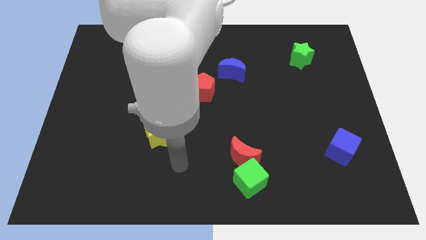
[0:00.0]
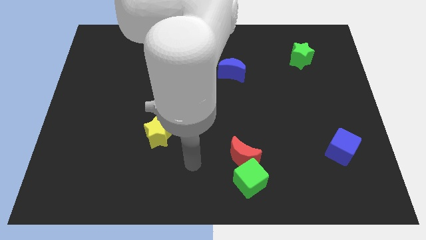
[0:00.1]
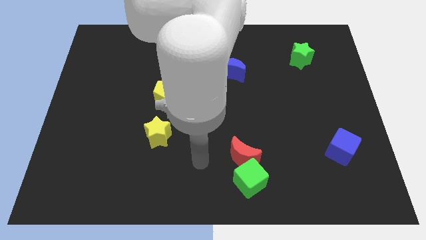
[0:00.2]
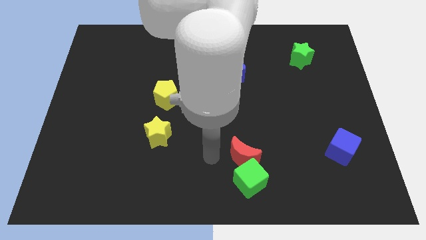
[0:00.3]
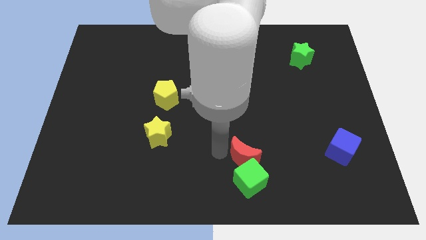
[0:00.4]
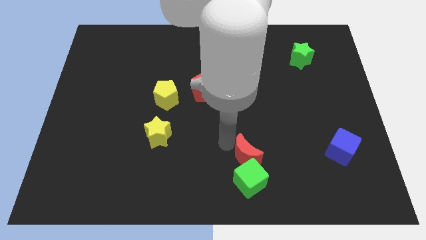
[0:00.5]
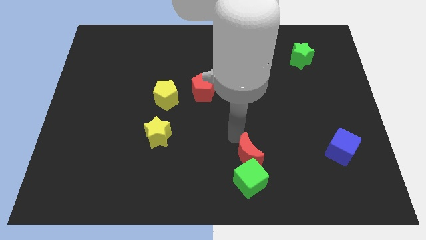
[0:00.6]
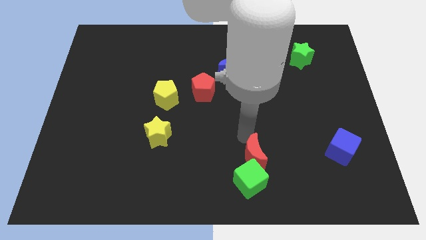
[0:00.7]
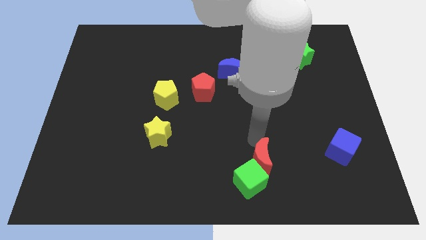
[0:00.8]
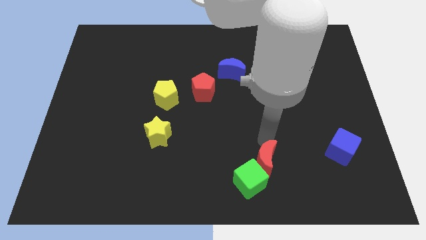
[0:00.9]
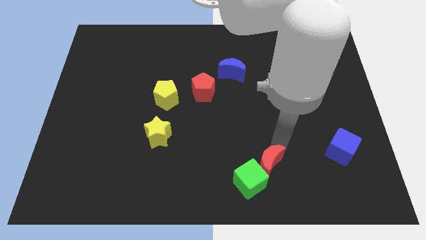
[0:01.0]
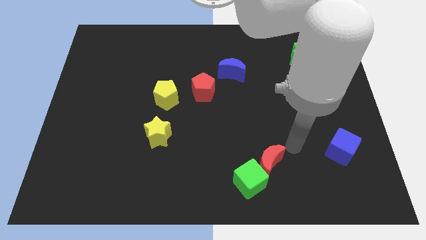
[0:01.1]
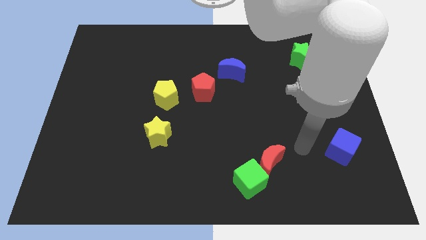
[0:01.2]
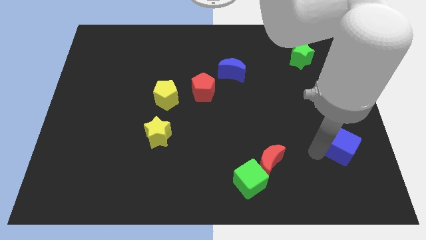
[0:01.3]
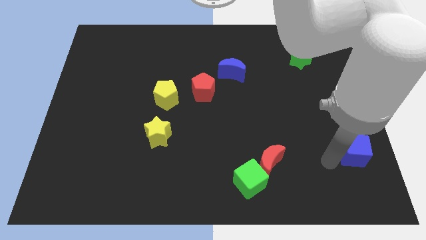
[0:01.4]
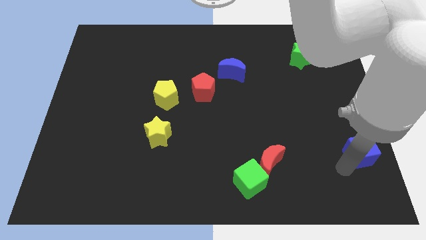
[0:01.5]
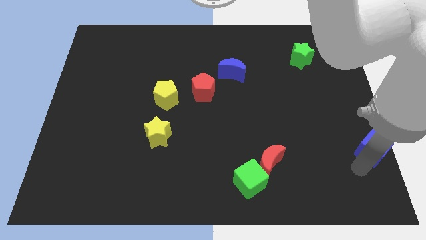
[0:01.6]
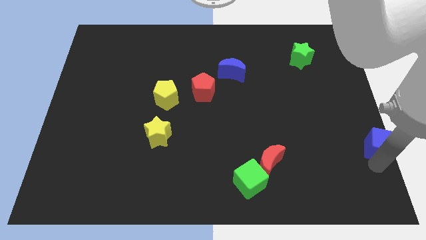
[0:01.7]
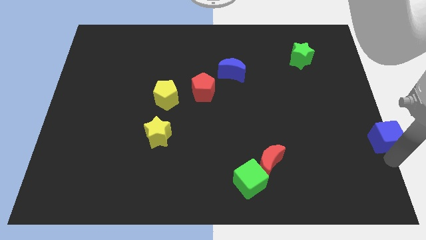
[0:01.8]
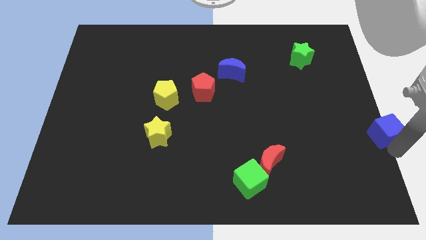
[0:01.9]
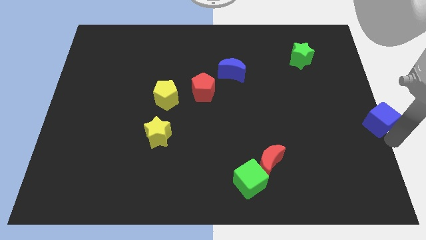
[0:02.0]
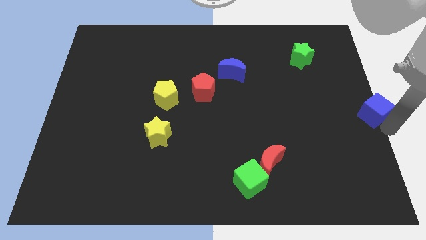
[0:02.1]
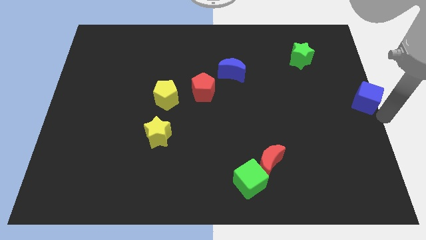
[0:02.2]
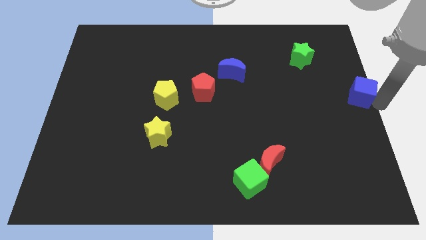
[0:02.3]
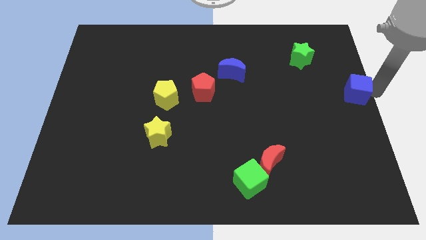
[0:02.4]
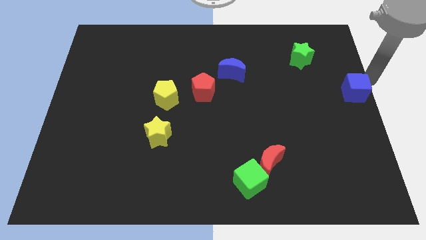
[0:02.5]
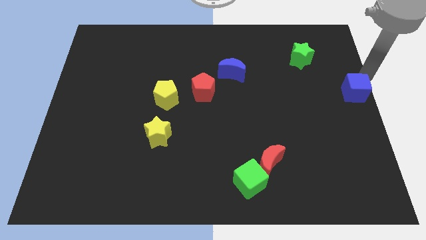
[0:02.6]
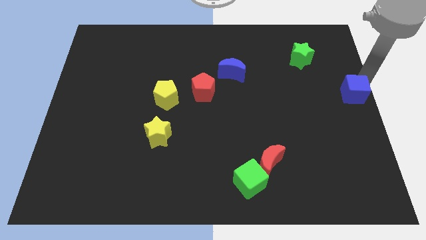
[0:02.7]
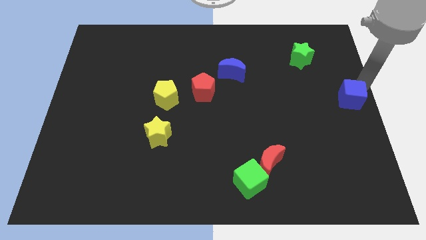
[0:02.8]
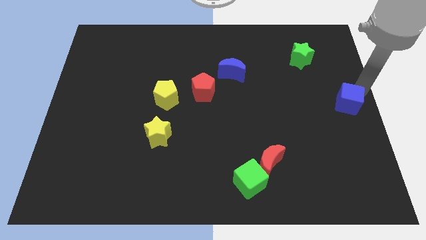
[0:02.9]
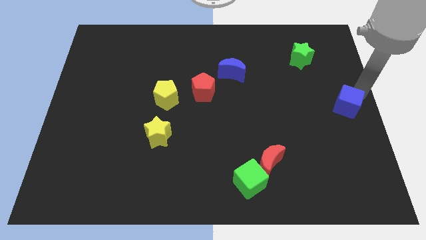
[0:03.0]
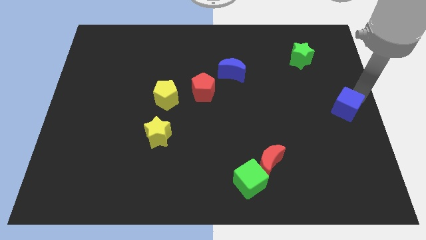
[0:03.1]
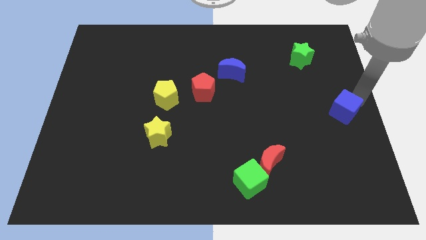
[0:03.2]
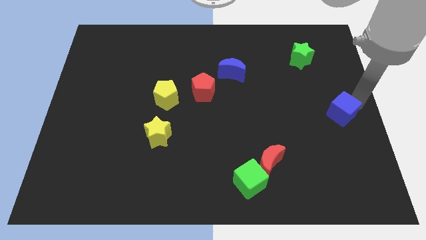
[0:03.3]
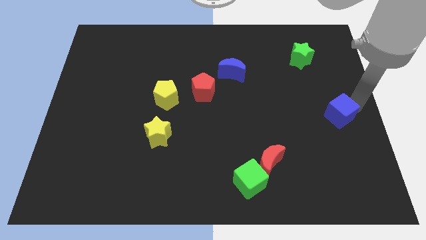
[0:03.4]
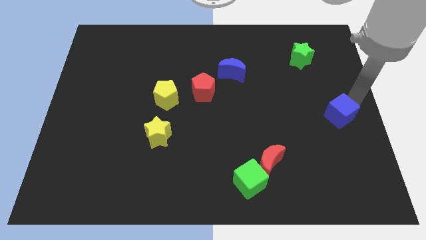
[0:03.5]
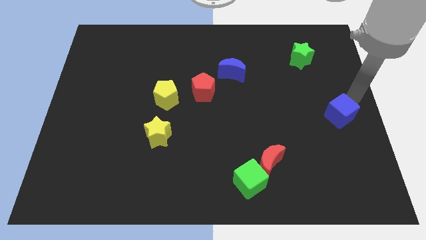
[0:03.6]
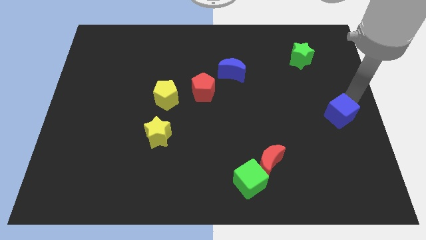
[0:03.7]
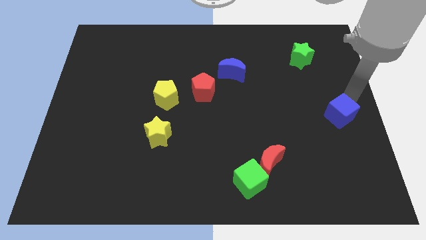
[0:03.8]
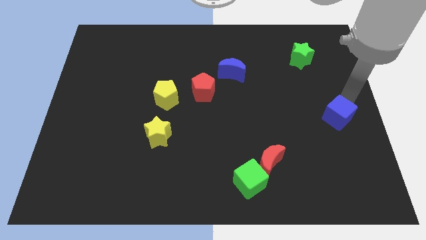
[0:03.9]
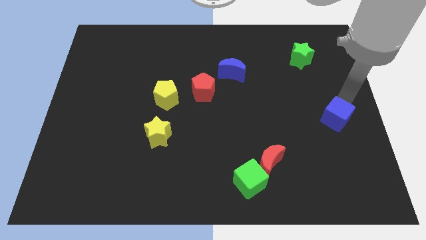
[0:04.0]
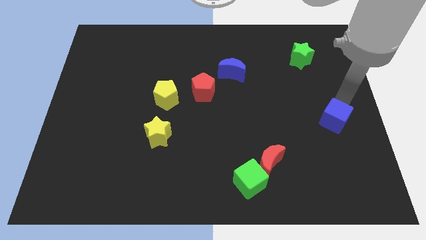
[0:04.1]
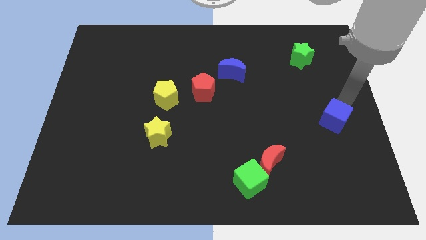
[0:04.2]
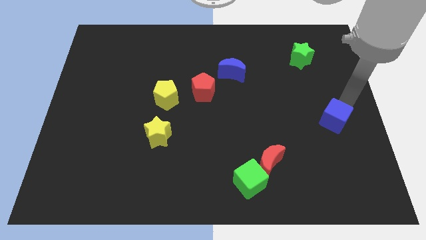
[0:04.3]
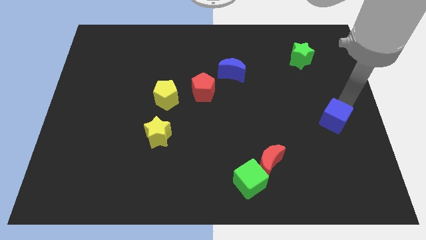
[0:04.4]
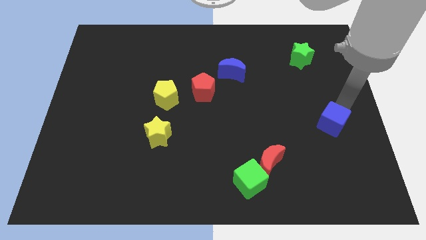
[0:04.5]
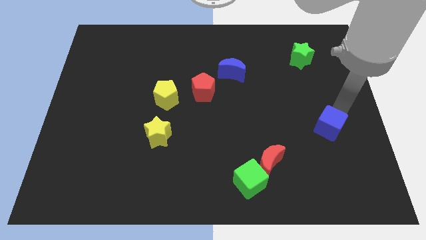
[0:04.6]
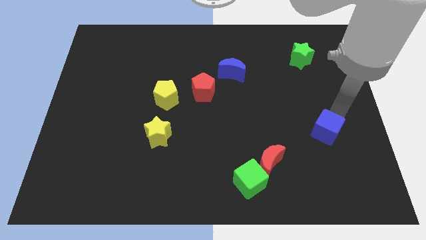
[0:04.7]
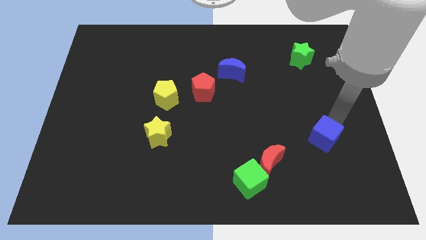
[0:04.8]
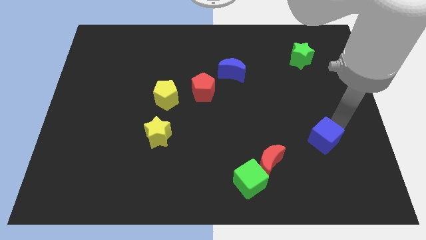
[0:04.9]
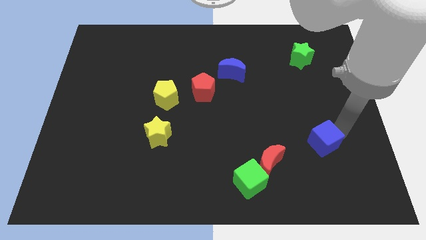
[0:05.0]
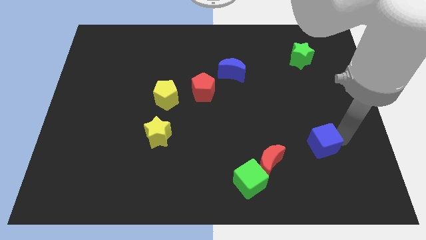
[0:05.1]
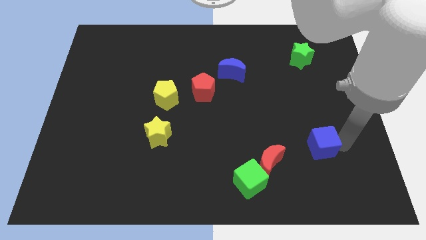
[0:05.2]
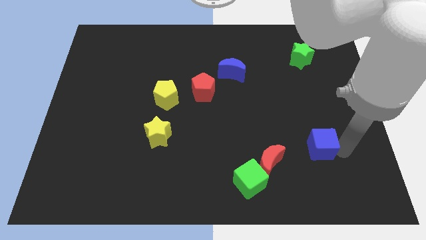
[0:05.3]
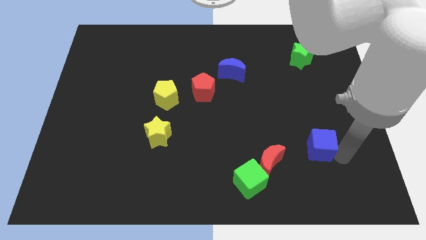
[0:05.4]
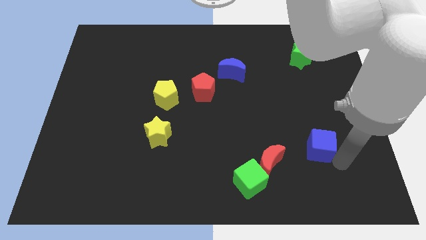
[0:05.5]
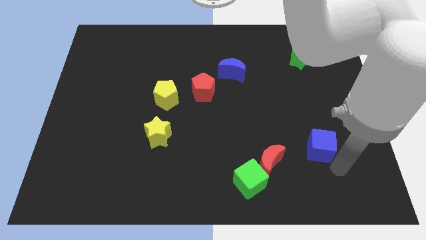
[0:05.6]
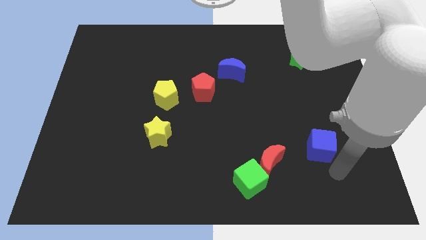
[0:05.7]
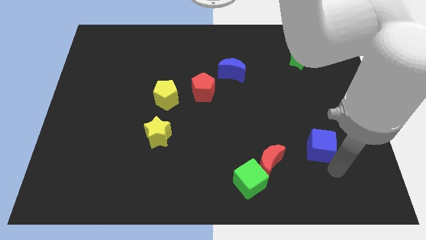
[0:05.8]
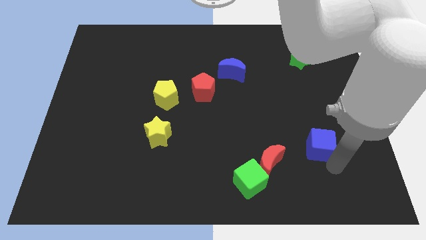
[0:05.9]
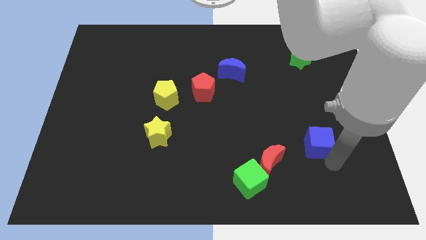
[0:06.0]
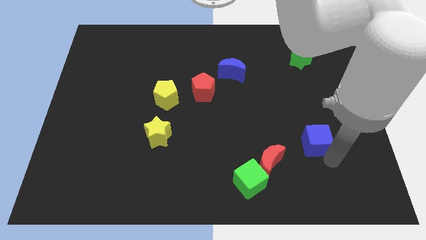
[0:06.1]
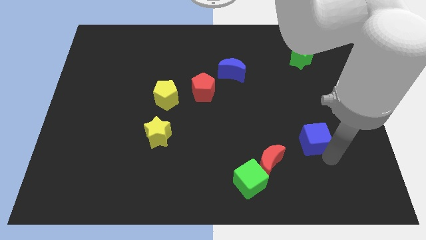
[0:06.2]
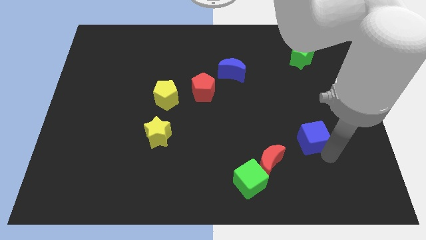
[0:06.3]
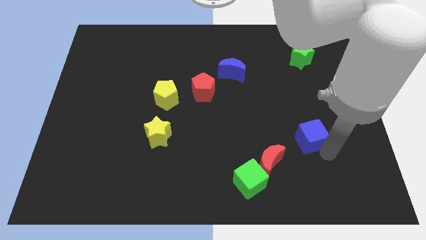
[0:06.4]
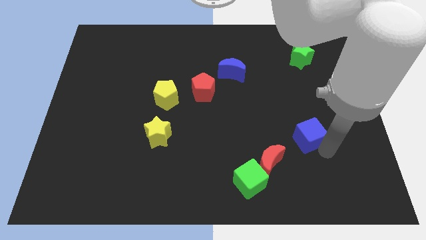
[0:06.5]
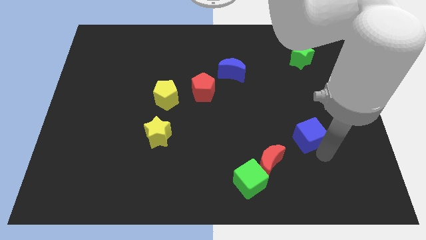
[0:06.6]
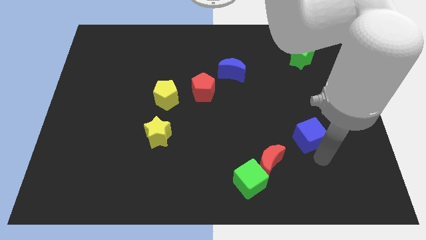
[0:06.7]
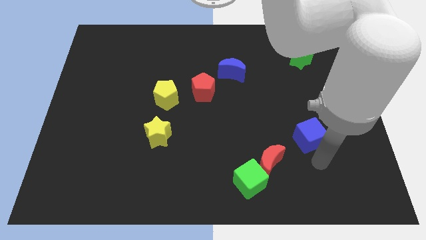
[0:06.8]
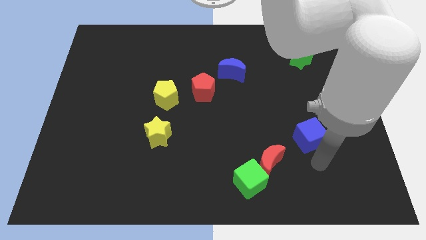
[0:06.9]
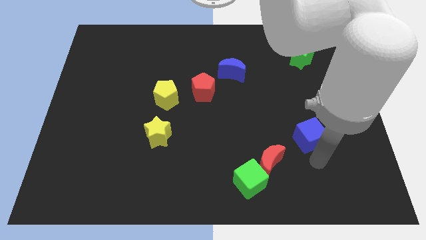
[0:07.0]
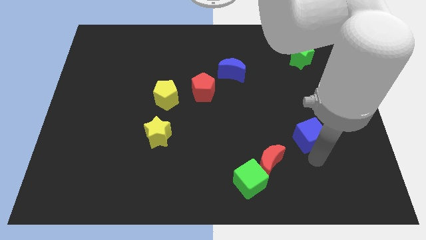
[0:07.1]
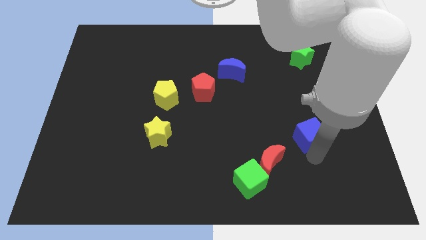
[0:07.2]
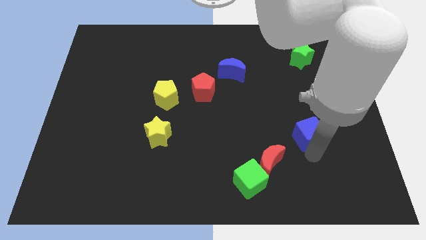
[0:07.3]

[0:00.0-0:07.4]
move the blue cube a little upwards and left diagonally

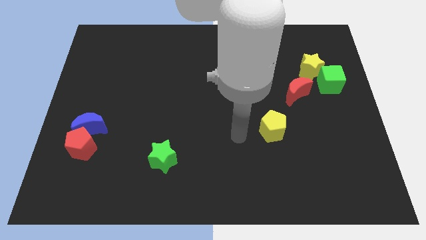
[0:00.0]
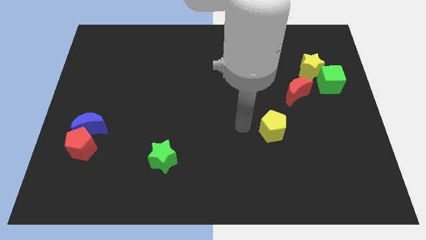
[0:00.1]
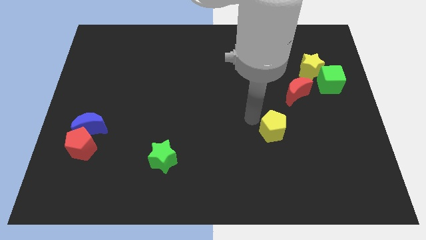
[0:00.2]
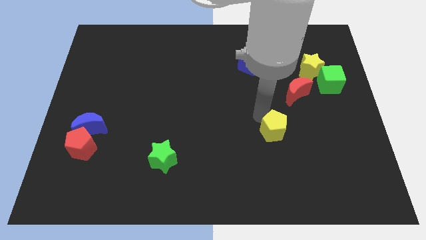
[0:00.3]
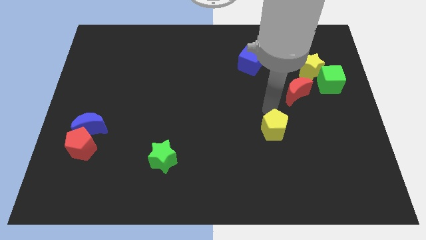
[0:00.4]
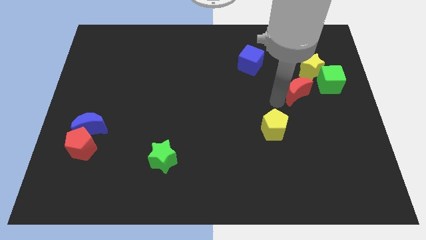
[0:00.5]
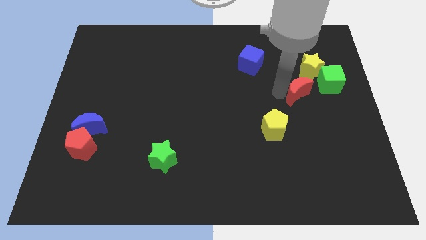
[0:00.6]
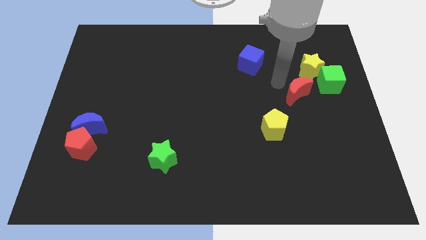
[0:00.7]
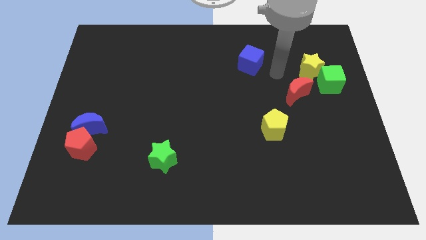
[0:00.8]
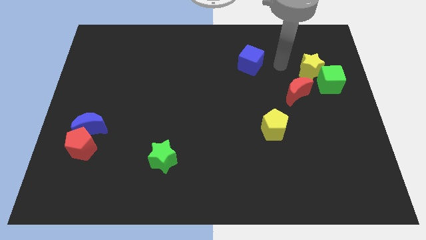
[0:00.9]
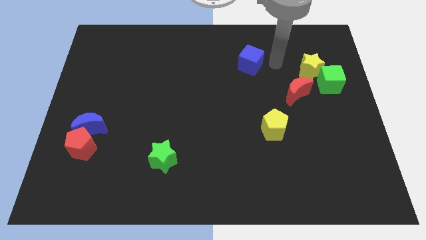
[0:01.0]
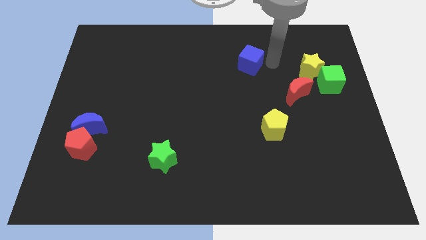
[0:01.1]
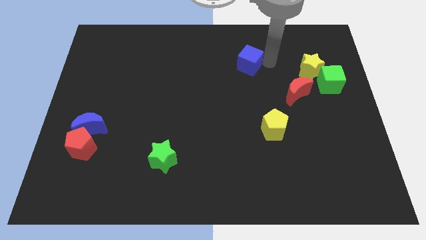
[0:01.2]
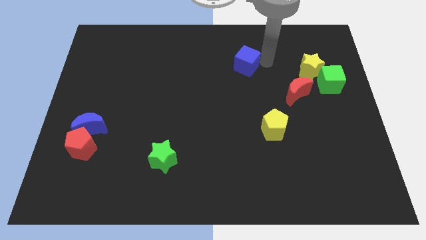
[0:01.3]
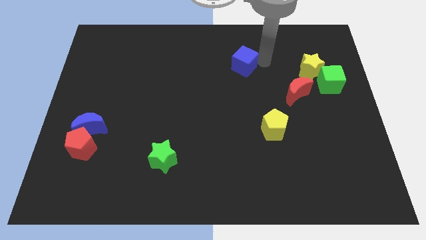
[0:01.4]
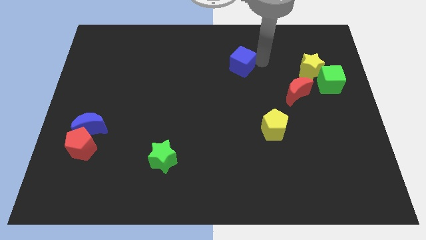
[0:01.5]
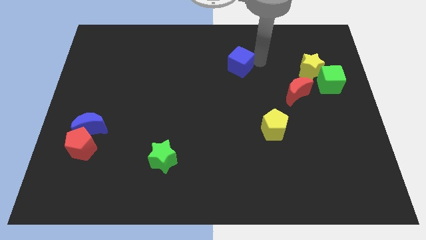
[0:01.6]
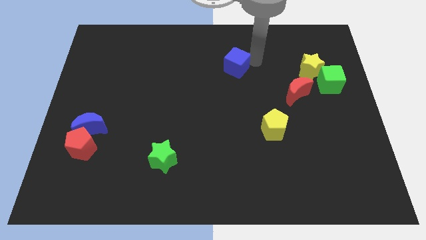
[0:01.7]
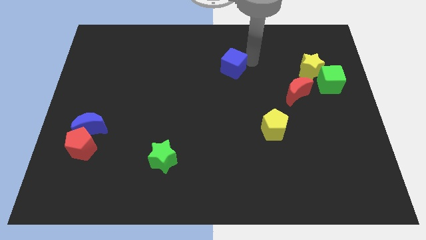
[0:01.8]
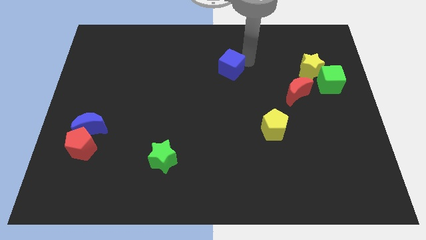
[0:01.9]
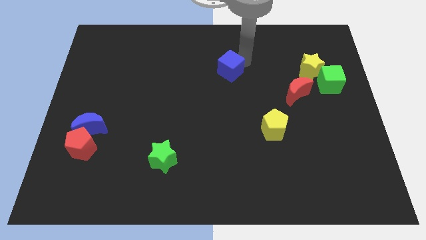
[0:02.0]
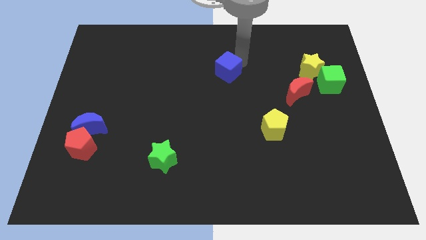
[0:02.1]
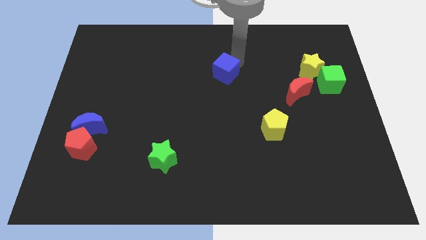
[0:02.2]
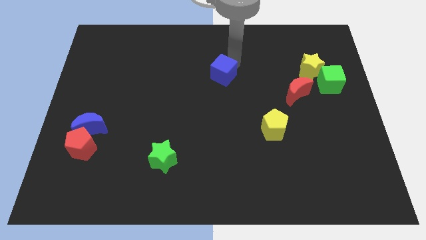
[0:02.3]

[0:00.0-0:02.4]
move the blue cube left a bit
